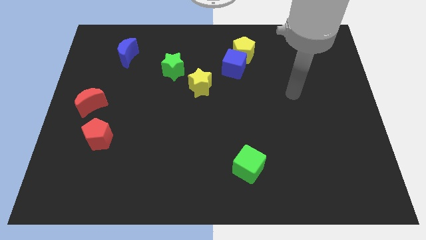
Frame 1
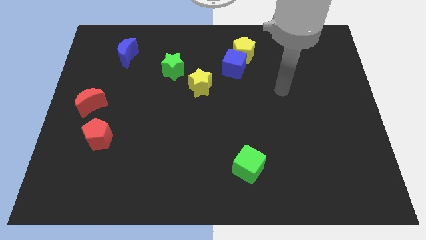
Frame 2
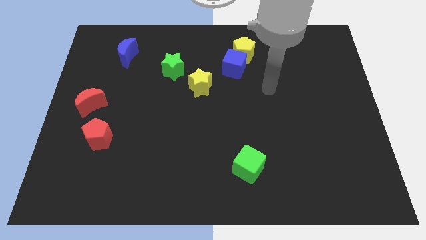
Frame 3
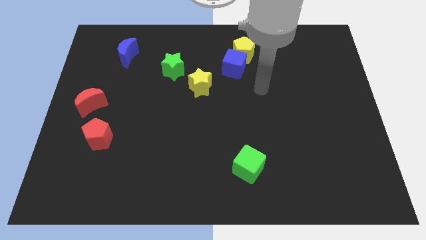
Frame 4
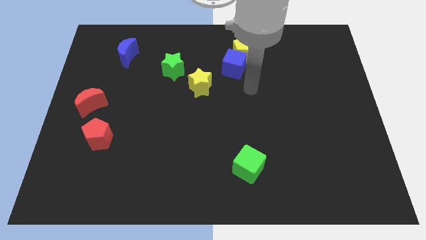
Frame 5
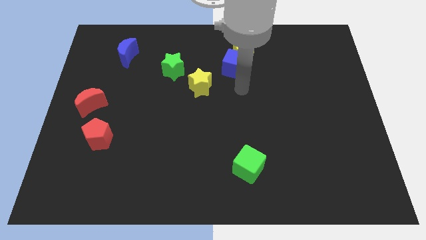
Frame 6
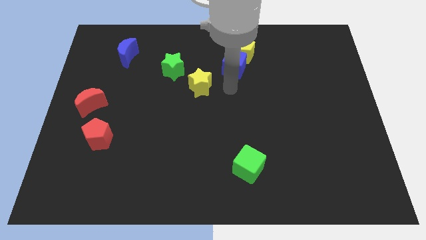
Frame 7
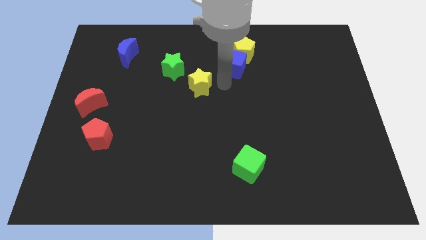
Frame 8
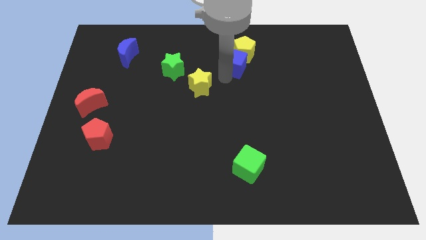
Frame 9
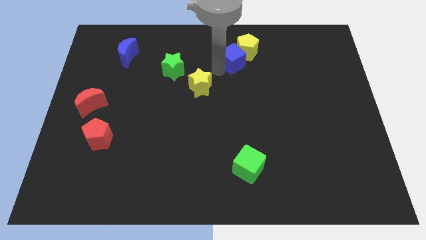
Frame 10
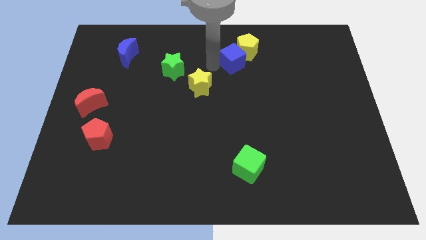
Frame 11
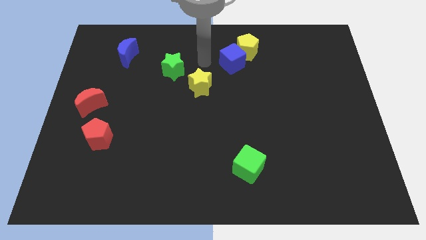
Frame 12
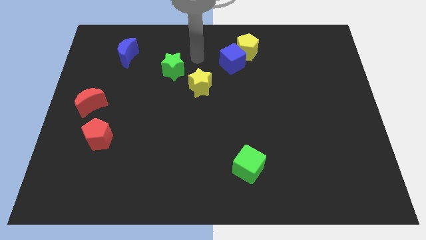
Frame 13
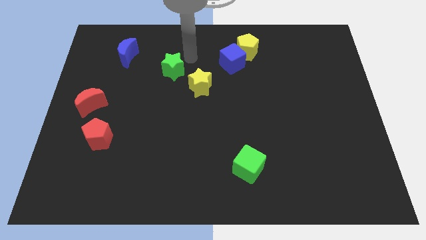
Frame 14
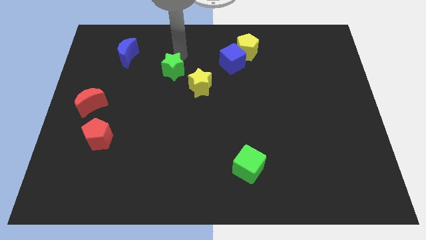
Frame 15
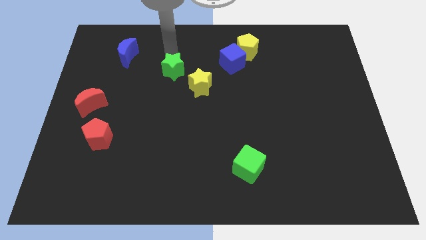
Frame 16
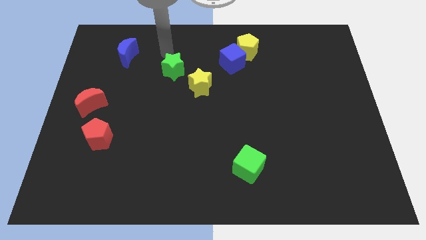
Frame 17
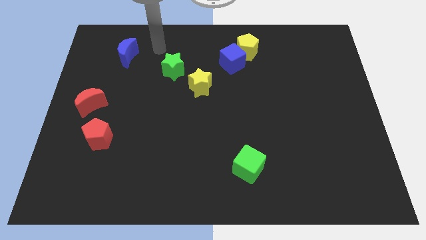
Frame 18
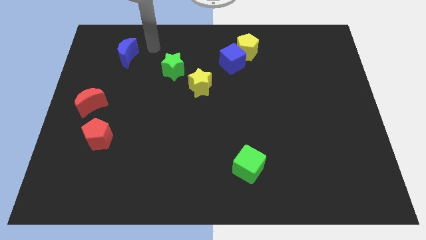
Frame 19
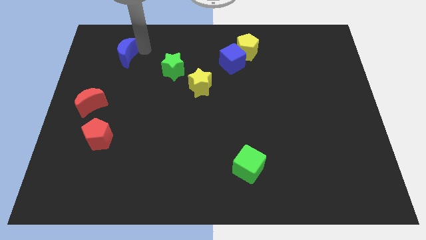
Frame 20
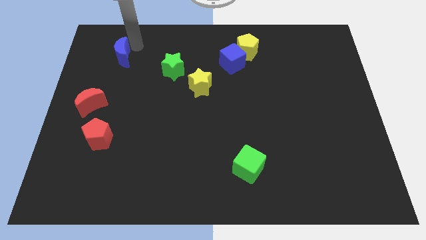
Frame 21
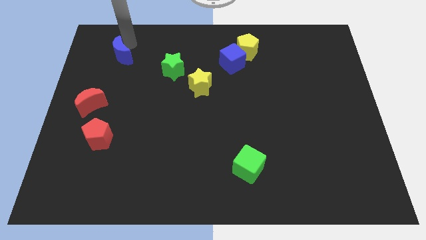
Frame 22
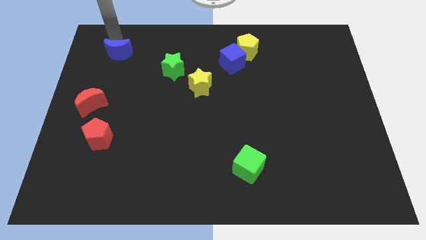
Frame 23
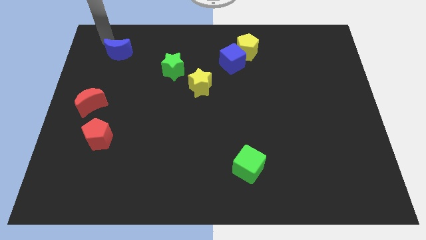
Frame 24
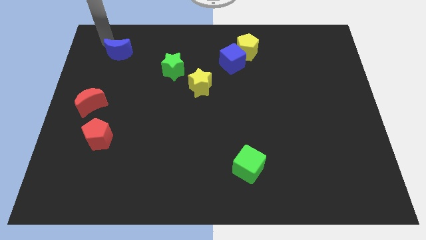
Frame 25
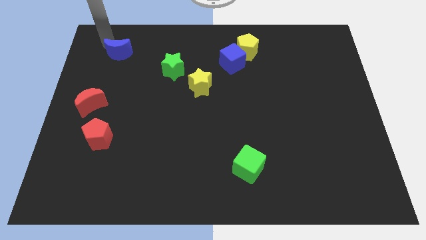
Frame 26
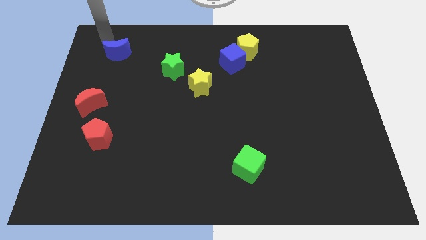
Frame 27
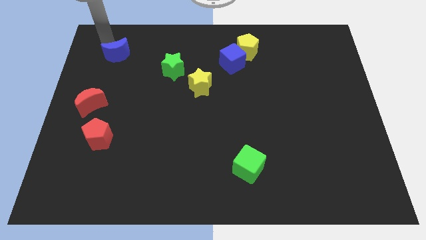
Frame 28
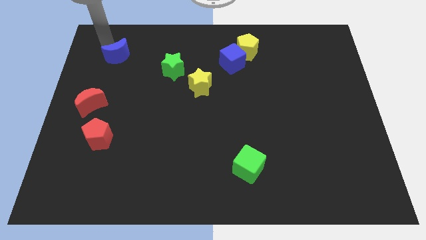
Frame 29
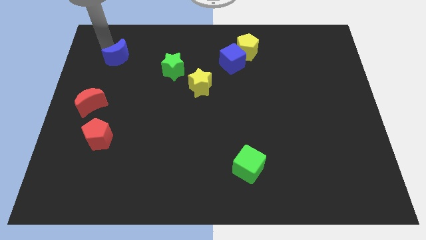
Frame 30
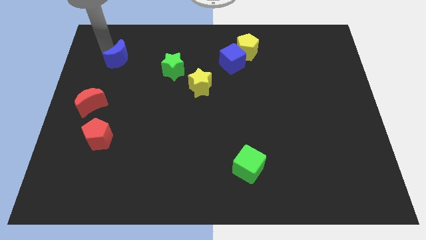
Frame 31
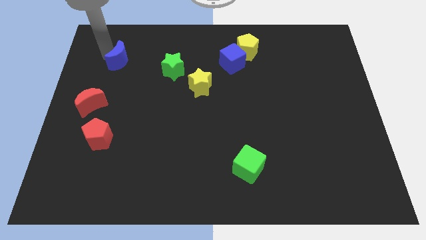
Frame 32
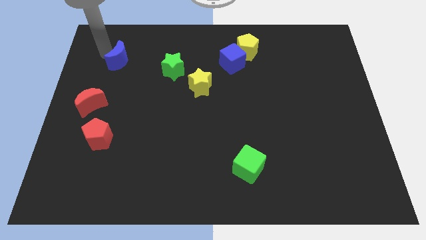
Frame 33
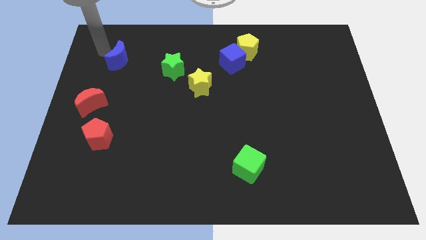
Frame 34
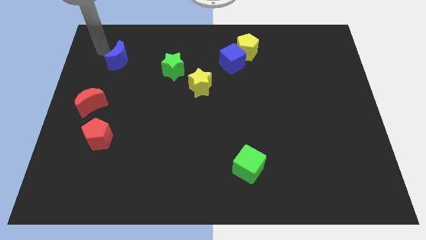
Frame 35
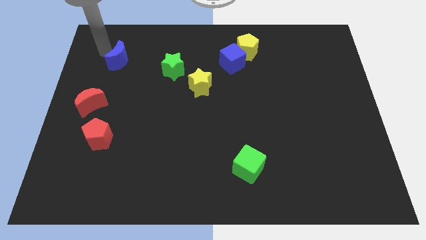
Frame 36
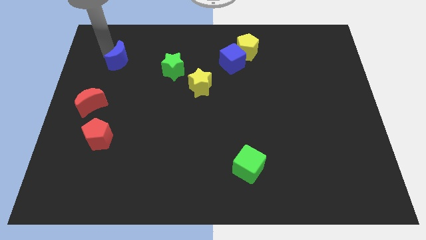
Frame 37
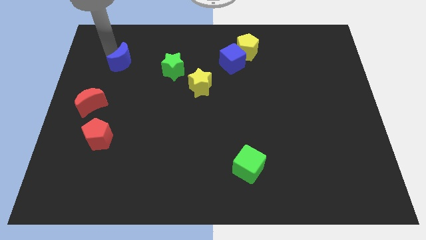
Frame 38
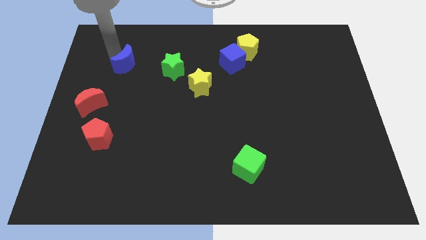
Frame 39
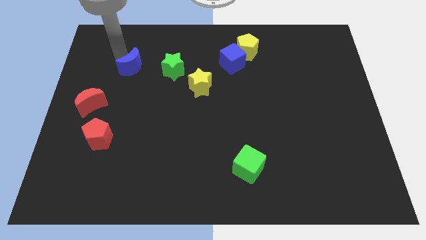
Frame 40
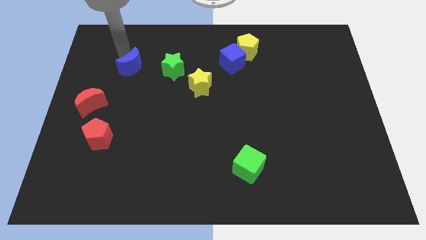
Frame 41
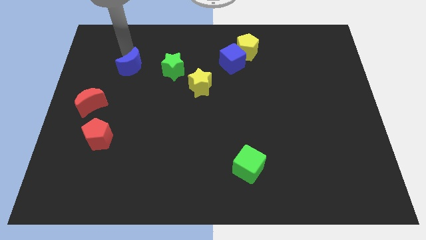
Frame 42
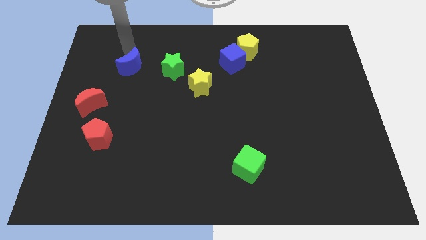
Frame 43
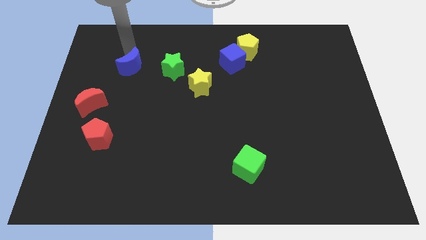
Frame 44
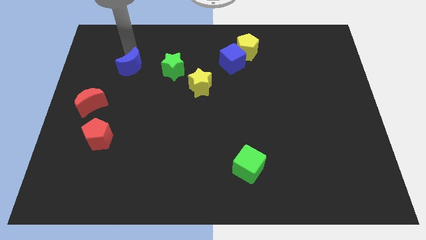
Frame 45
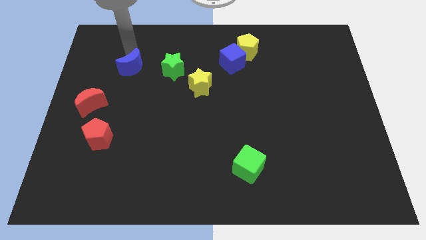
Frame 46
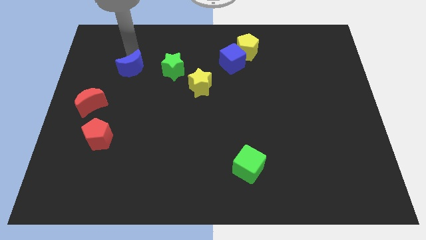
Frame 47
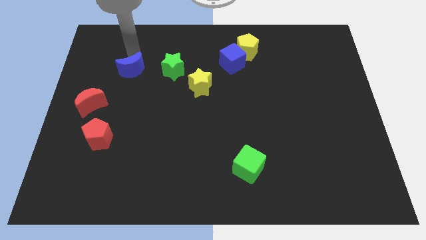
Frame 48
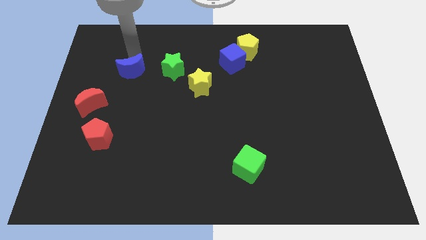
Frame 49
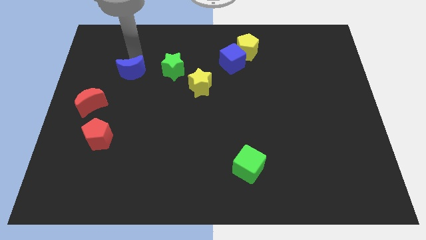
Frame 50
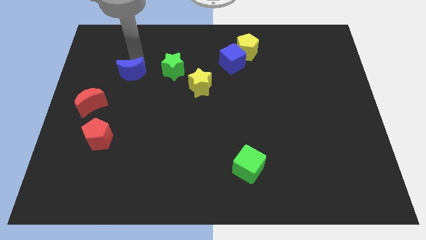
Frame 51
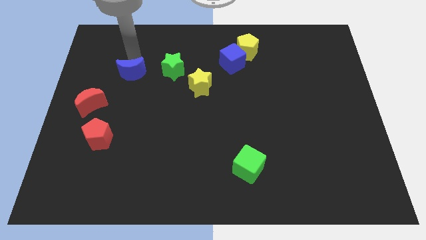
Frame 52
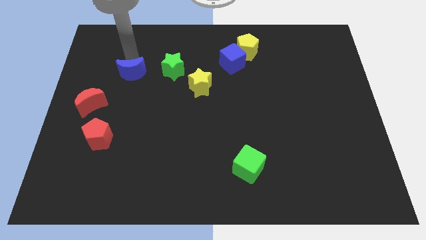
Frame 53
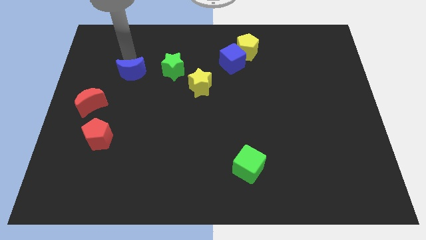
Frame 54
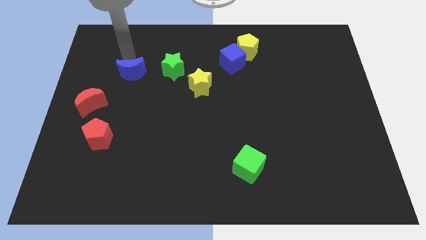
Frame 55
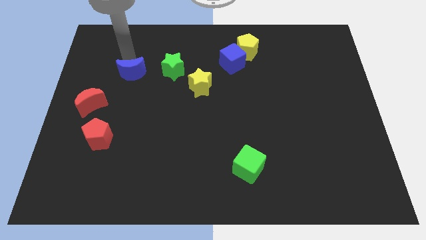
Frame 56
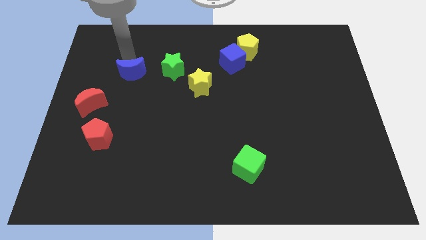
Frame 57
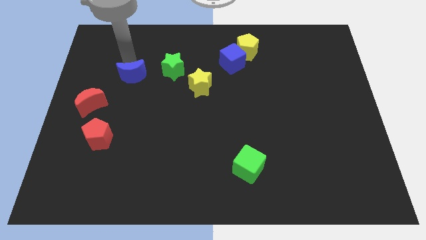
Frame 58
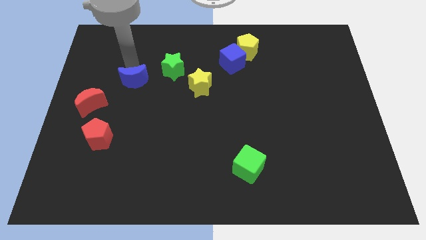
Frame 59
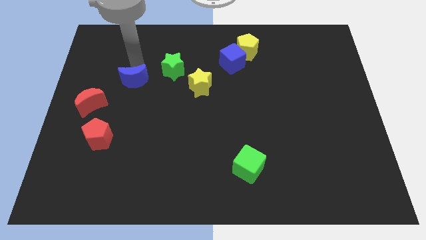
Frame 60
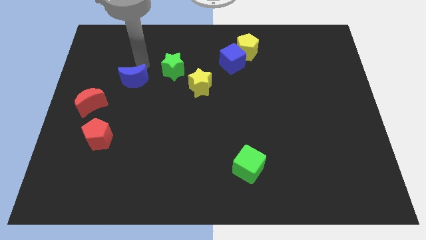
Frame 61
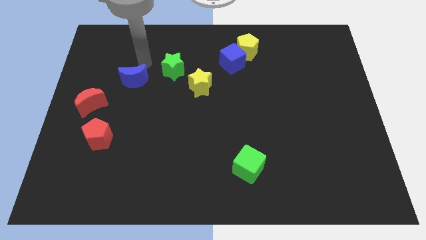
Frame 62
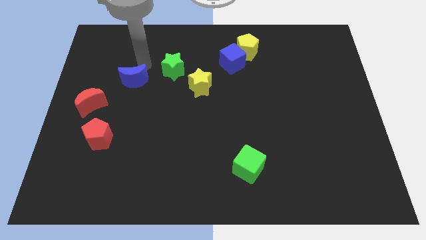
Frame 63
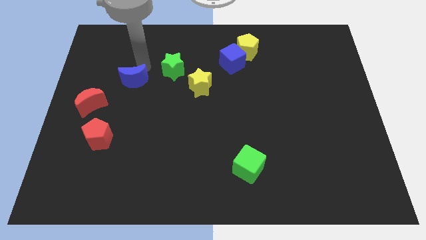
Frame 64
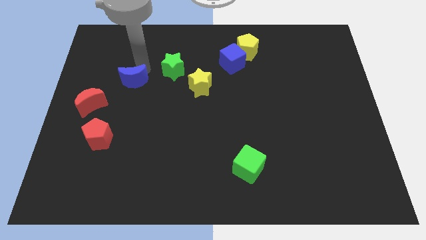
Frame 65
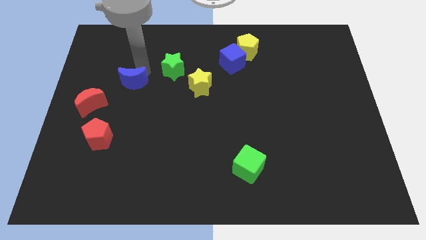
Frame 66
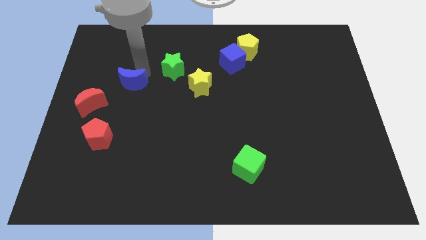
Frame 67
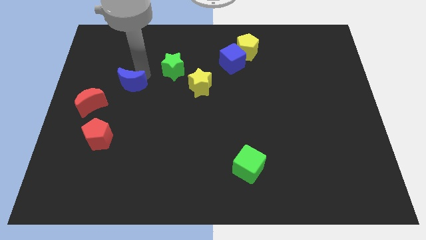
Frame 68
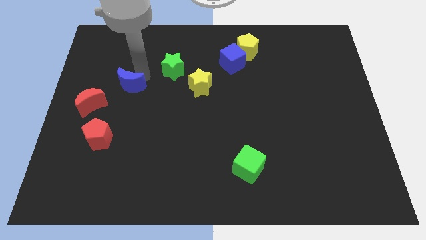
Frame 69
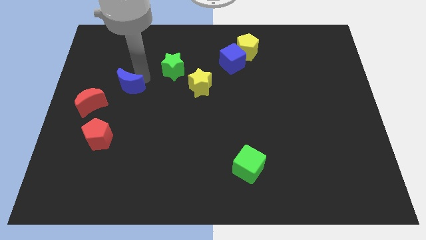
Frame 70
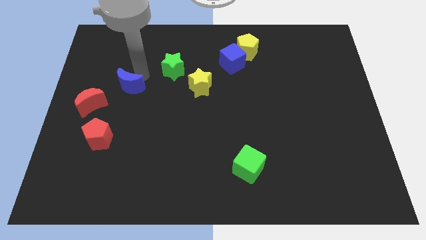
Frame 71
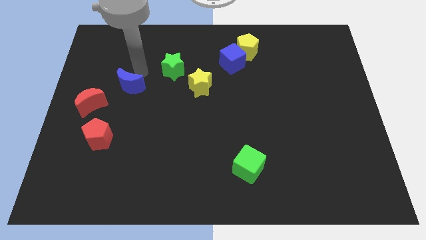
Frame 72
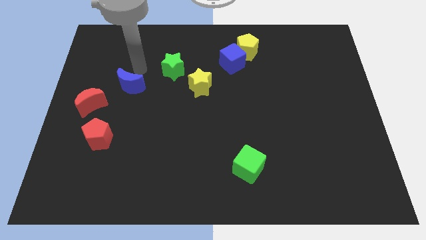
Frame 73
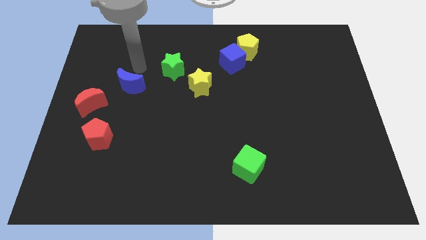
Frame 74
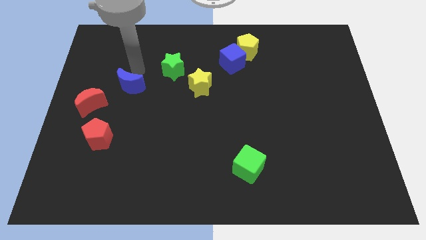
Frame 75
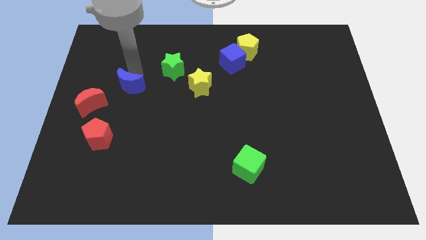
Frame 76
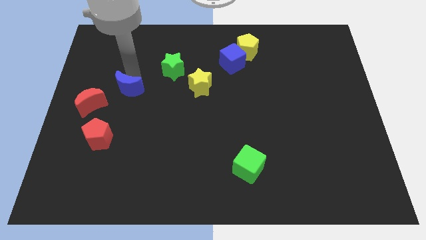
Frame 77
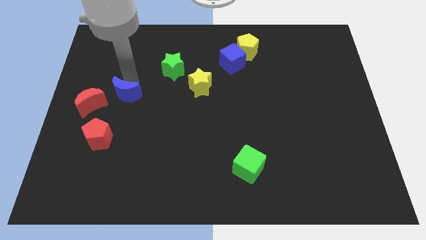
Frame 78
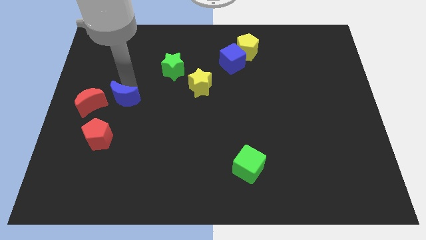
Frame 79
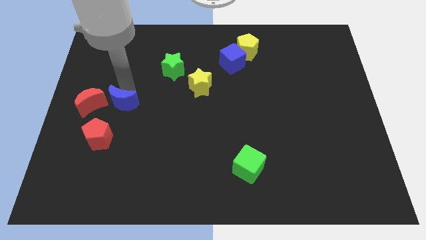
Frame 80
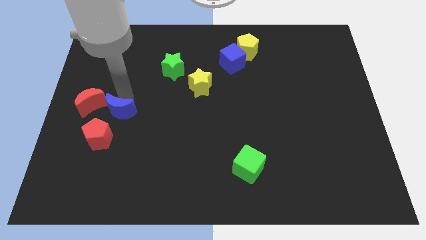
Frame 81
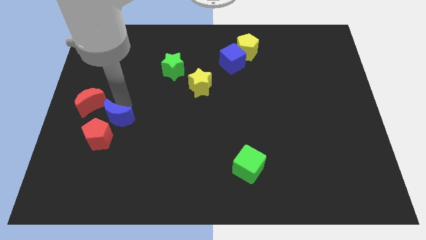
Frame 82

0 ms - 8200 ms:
move the blue moon next to the red pentagon
